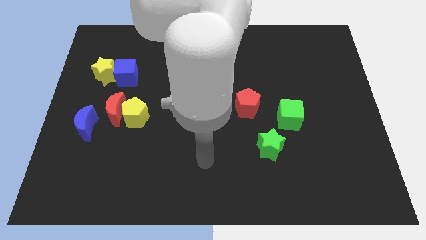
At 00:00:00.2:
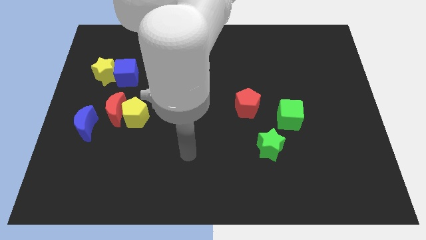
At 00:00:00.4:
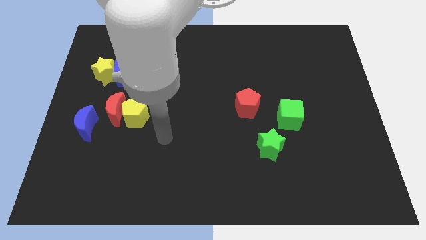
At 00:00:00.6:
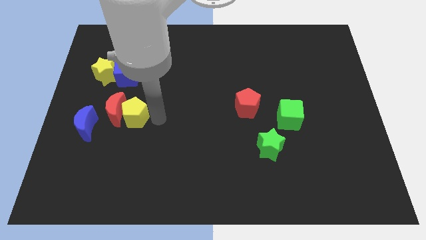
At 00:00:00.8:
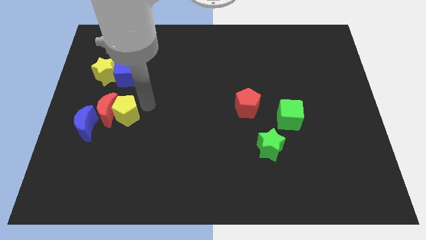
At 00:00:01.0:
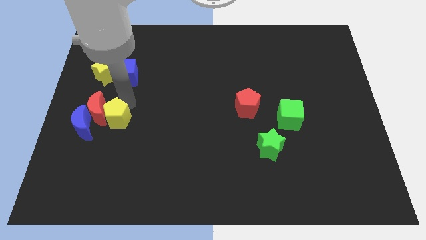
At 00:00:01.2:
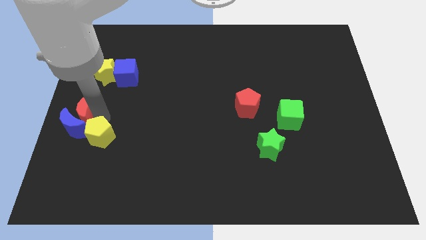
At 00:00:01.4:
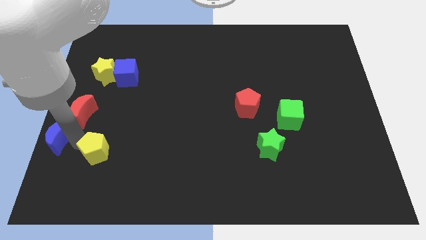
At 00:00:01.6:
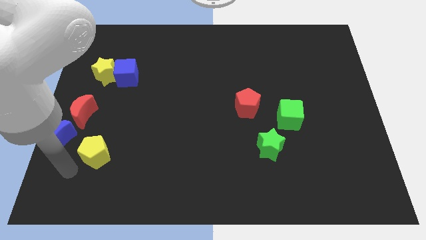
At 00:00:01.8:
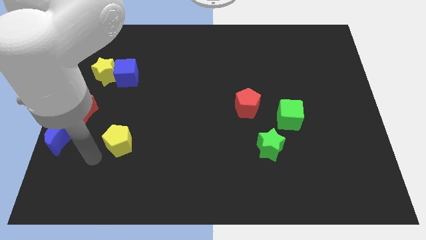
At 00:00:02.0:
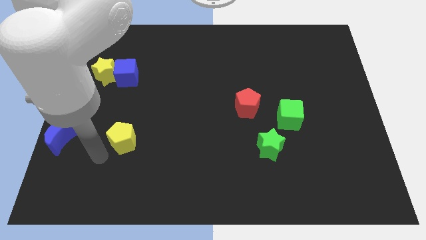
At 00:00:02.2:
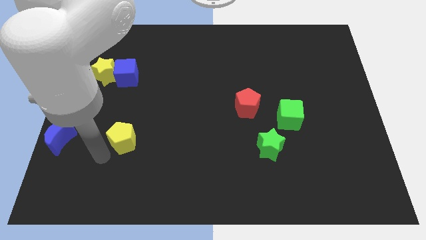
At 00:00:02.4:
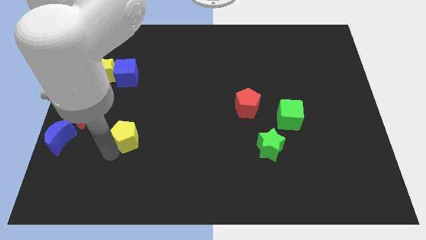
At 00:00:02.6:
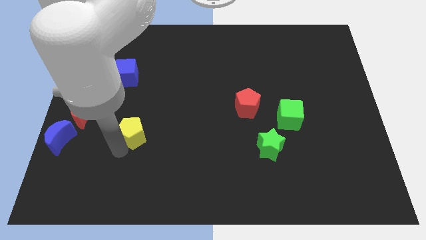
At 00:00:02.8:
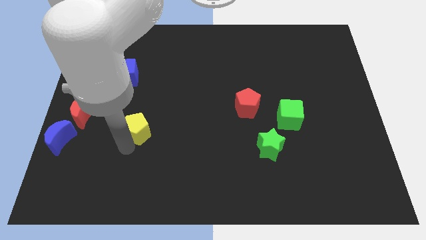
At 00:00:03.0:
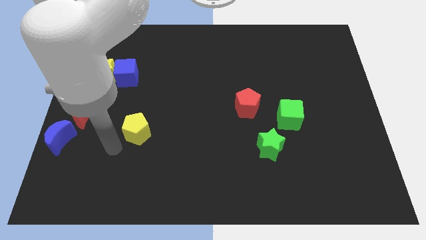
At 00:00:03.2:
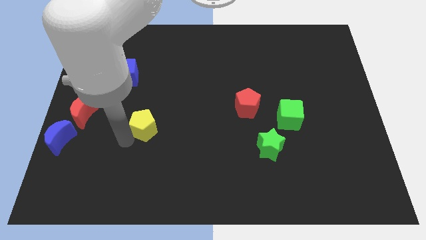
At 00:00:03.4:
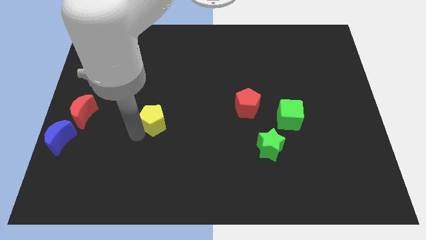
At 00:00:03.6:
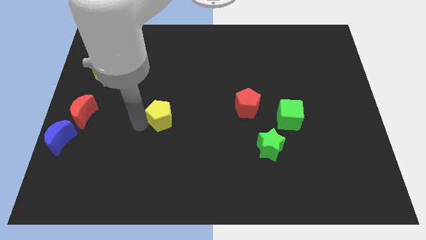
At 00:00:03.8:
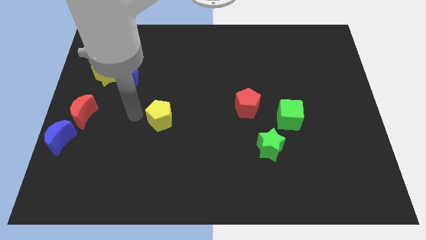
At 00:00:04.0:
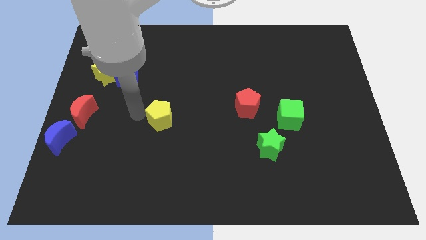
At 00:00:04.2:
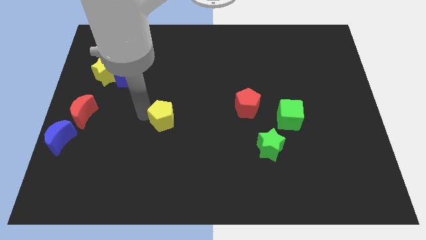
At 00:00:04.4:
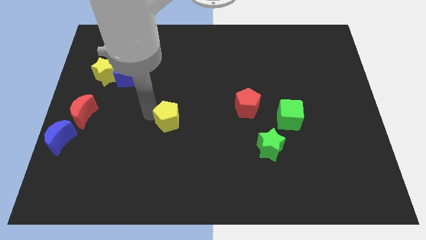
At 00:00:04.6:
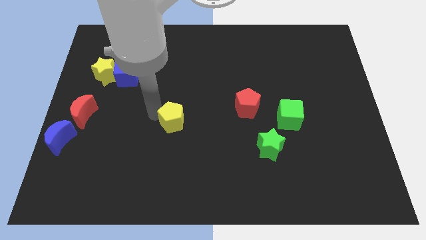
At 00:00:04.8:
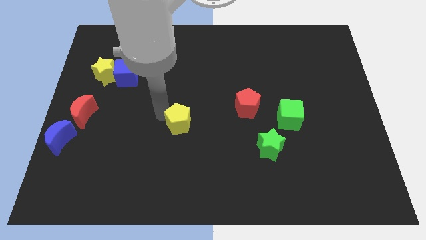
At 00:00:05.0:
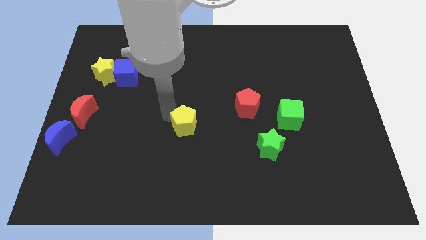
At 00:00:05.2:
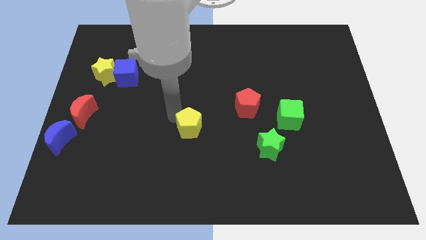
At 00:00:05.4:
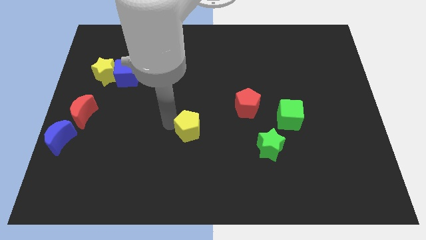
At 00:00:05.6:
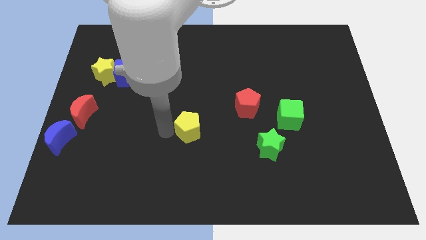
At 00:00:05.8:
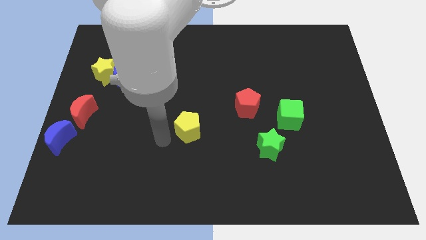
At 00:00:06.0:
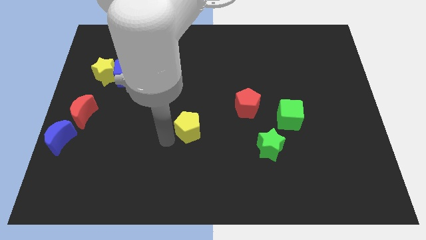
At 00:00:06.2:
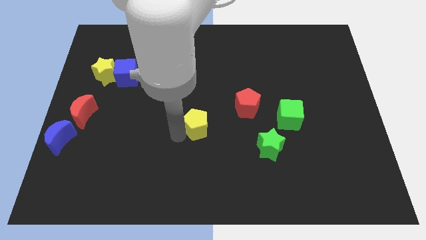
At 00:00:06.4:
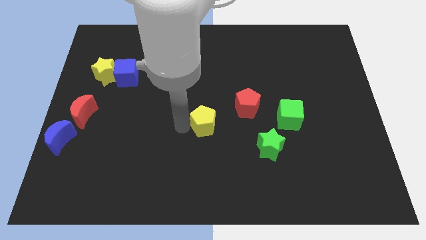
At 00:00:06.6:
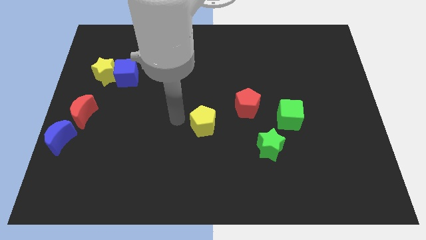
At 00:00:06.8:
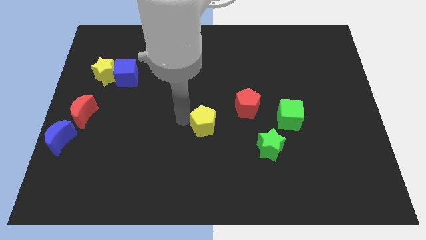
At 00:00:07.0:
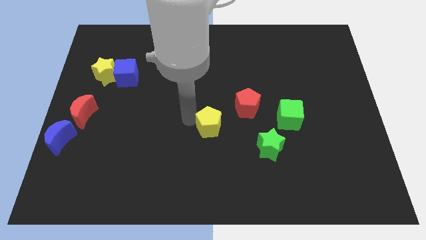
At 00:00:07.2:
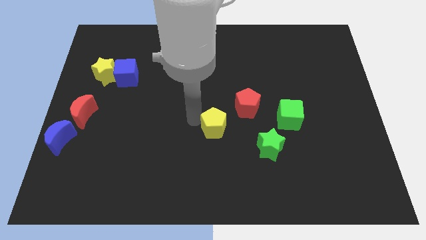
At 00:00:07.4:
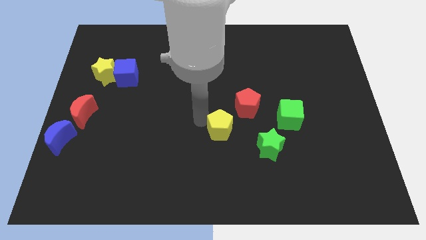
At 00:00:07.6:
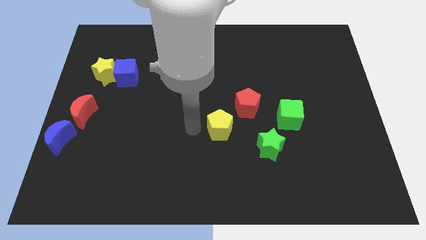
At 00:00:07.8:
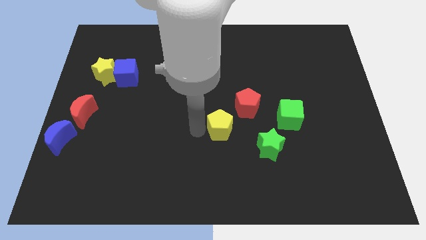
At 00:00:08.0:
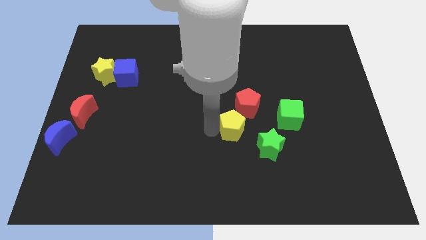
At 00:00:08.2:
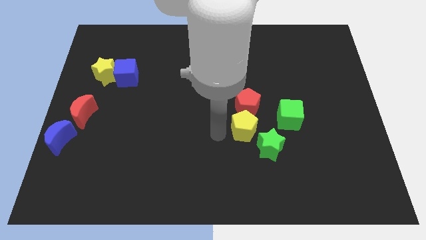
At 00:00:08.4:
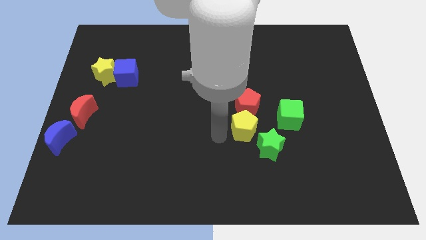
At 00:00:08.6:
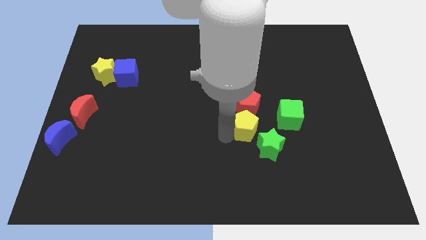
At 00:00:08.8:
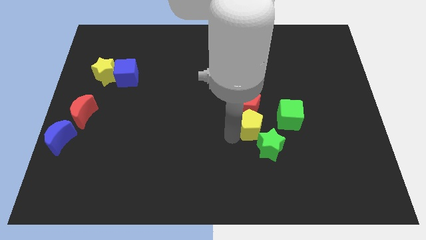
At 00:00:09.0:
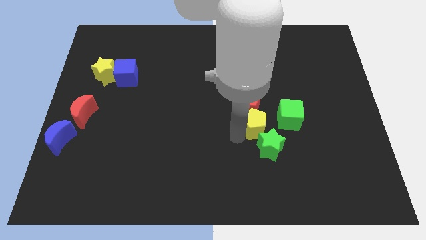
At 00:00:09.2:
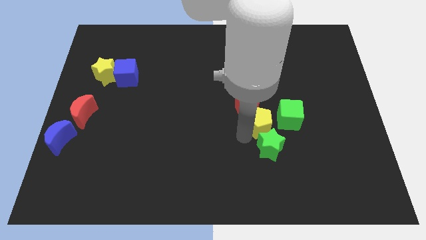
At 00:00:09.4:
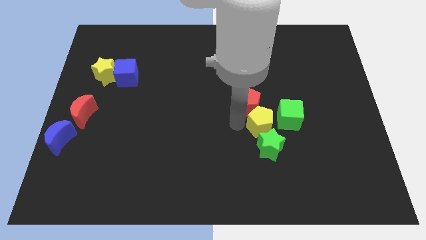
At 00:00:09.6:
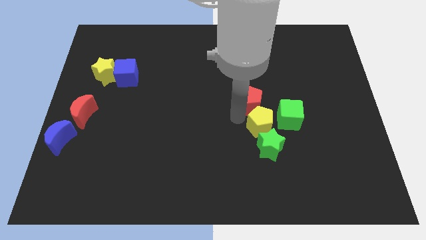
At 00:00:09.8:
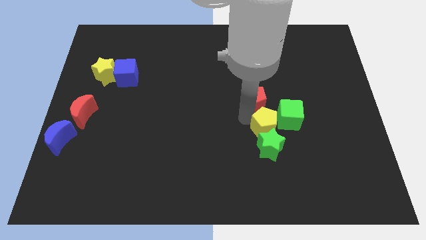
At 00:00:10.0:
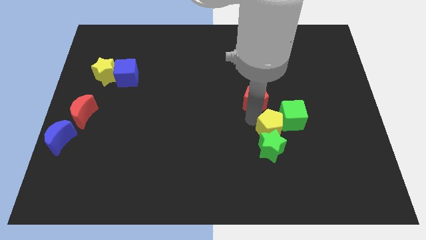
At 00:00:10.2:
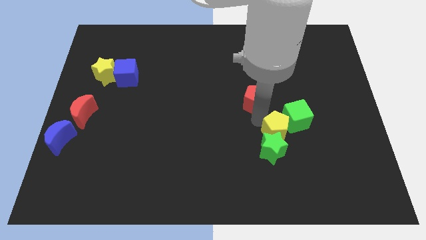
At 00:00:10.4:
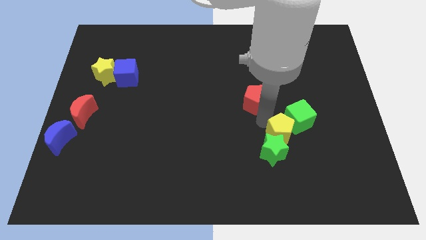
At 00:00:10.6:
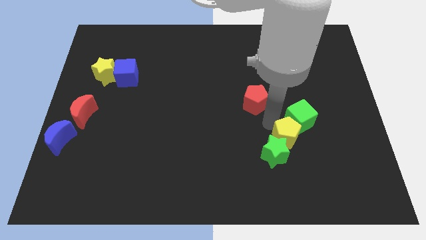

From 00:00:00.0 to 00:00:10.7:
put the yellow pentagon to the right side of the green star

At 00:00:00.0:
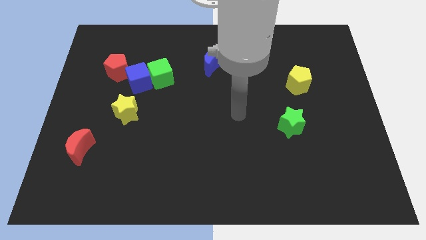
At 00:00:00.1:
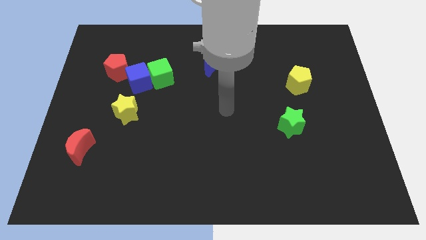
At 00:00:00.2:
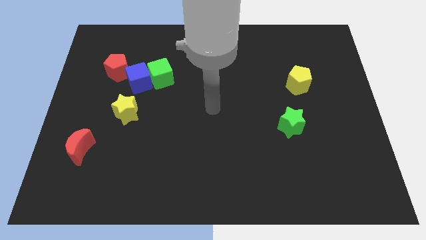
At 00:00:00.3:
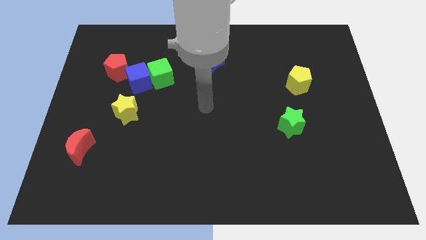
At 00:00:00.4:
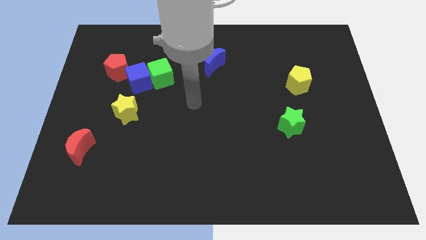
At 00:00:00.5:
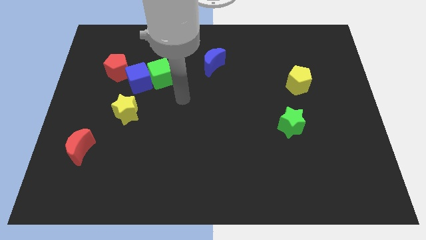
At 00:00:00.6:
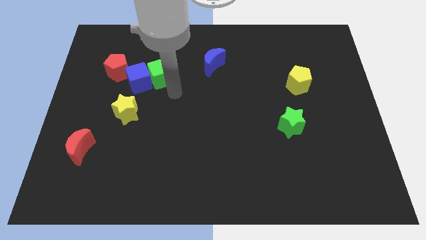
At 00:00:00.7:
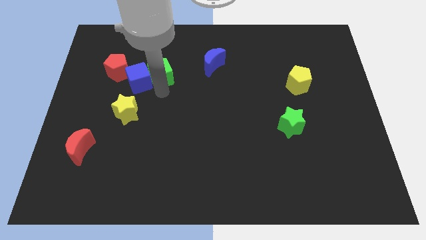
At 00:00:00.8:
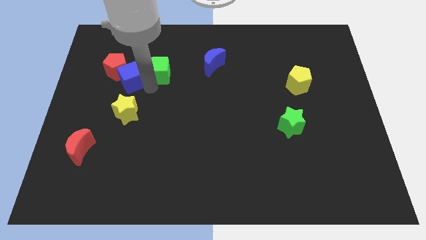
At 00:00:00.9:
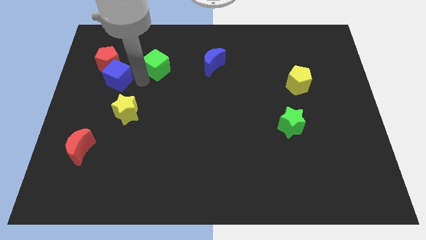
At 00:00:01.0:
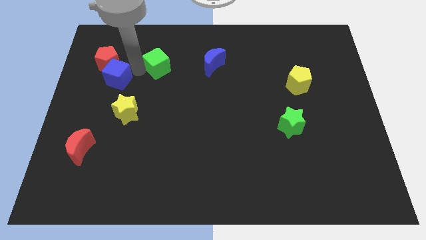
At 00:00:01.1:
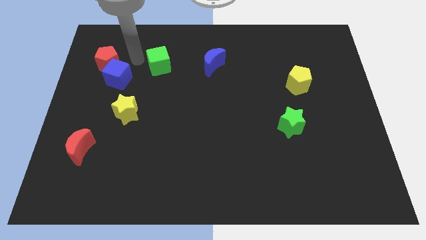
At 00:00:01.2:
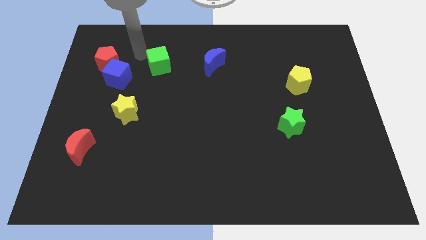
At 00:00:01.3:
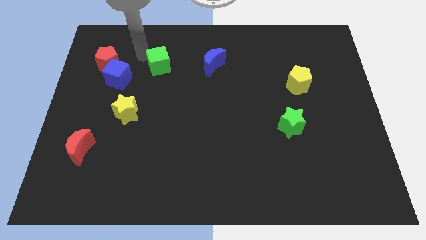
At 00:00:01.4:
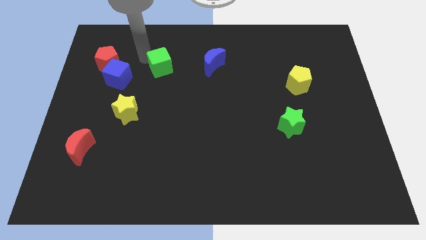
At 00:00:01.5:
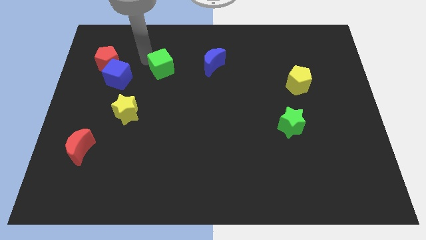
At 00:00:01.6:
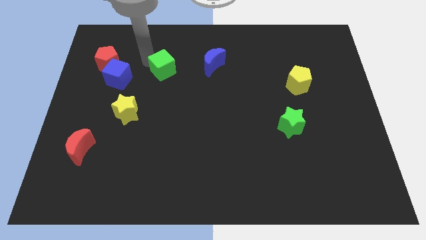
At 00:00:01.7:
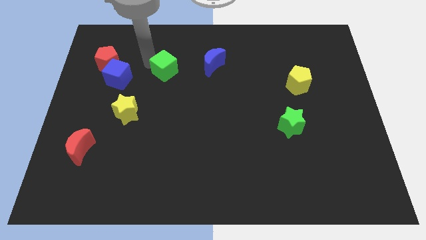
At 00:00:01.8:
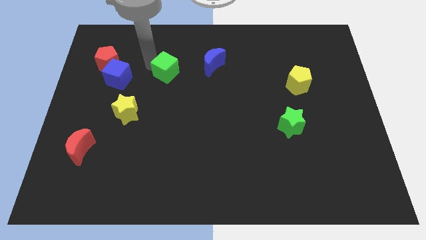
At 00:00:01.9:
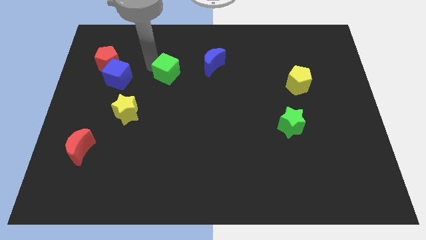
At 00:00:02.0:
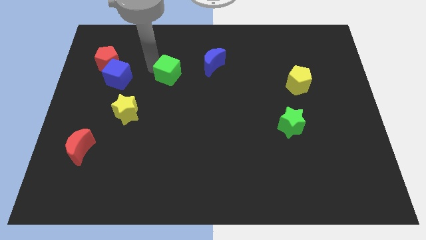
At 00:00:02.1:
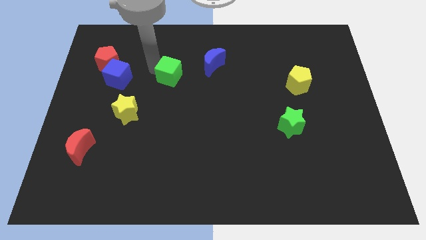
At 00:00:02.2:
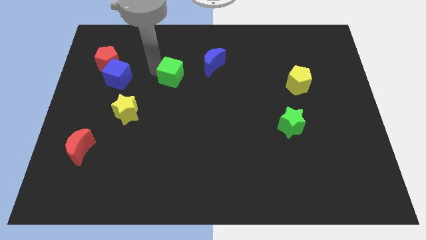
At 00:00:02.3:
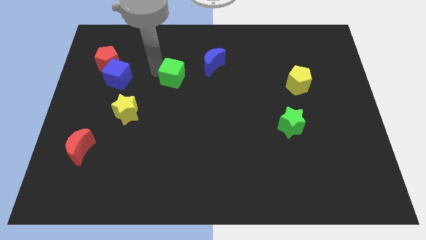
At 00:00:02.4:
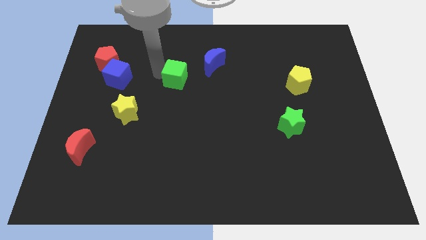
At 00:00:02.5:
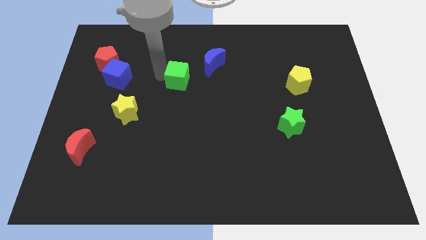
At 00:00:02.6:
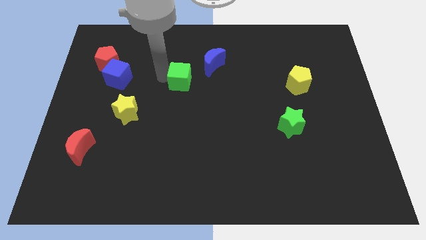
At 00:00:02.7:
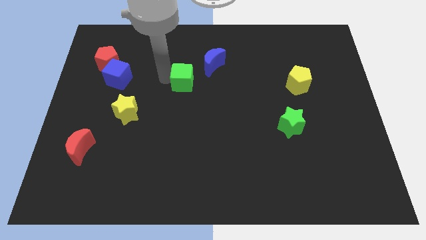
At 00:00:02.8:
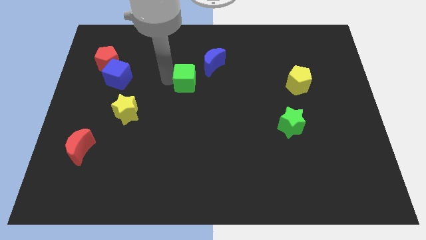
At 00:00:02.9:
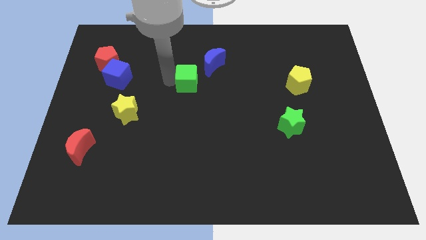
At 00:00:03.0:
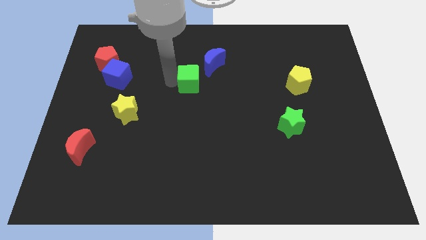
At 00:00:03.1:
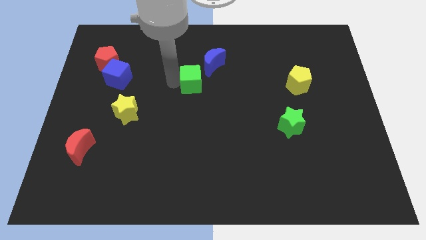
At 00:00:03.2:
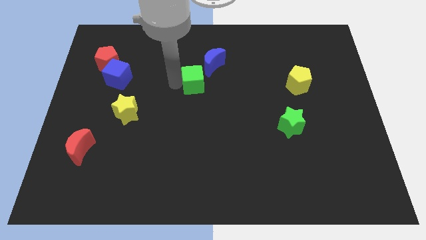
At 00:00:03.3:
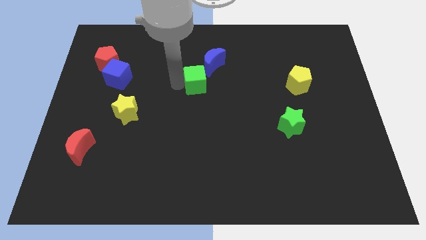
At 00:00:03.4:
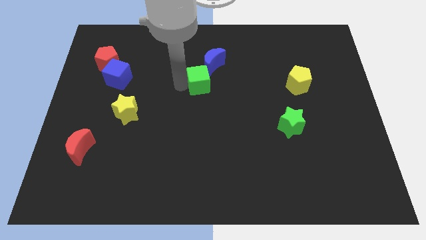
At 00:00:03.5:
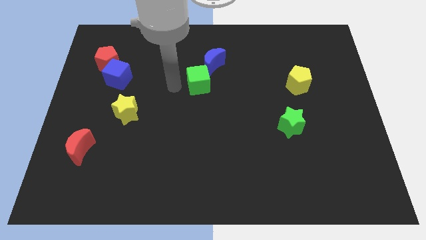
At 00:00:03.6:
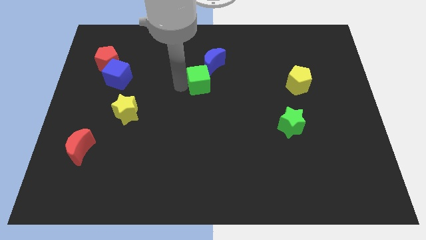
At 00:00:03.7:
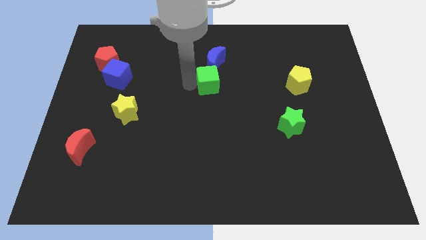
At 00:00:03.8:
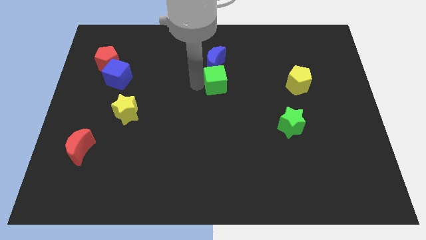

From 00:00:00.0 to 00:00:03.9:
move the green cube to the bottom right of the blue moon
